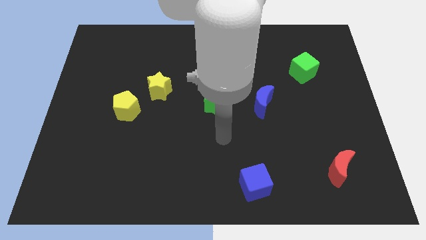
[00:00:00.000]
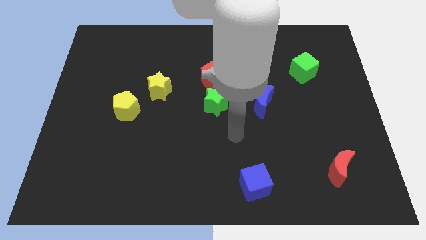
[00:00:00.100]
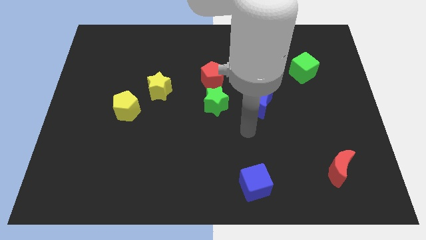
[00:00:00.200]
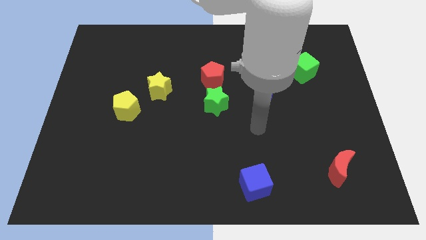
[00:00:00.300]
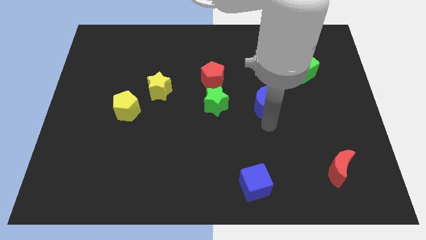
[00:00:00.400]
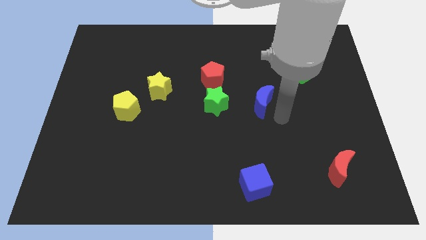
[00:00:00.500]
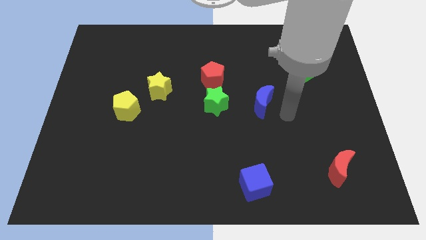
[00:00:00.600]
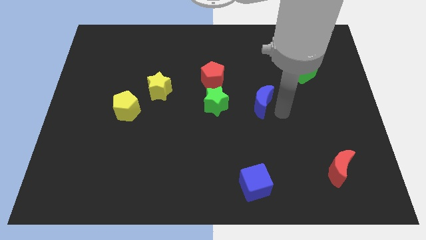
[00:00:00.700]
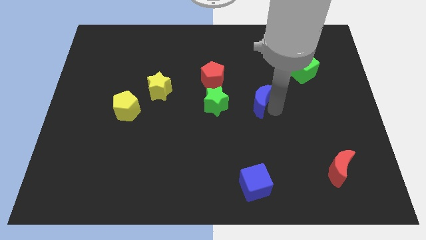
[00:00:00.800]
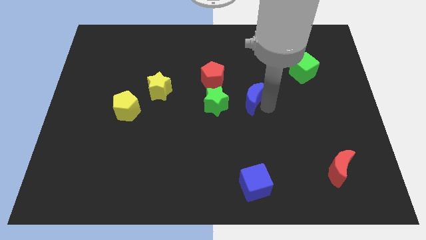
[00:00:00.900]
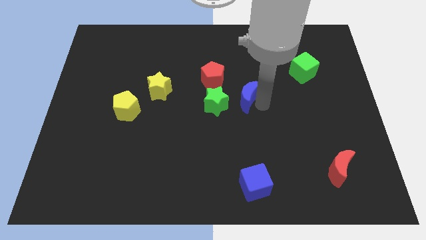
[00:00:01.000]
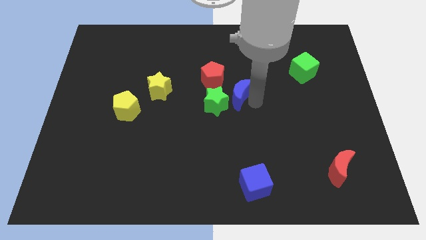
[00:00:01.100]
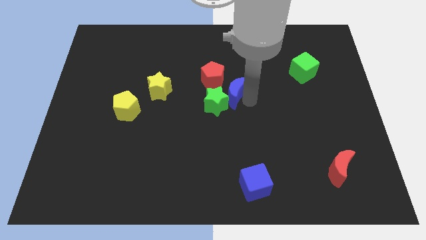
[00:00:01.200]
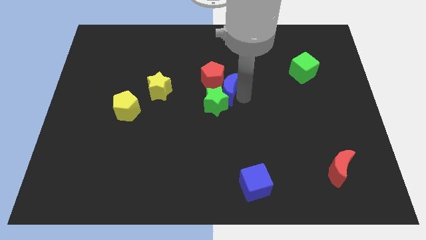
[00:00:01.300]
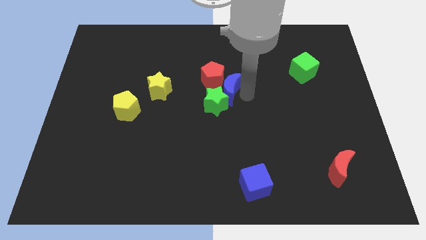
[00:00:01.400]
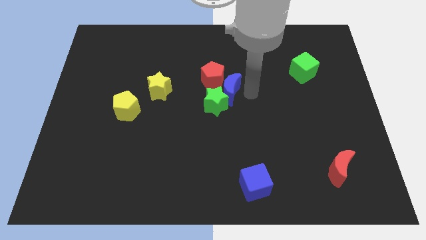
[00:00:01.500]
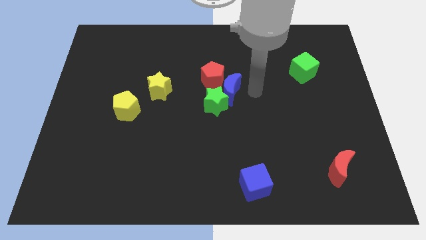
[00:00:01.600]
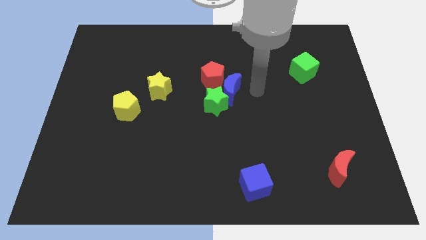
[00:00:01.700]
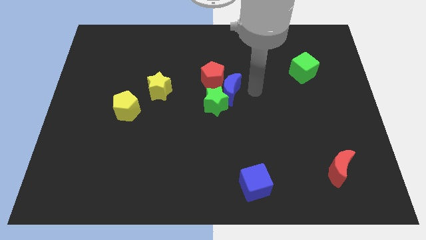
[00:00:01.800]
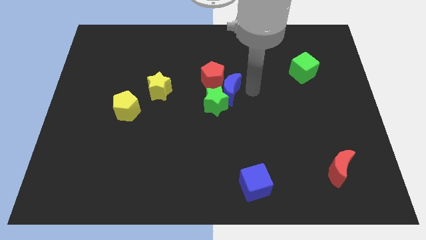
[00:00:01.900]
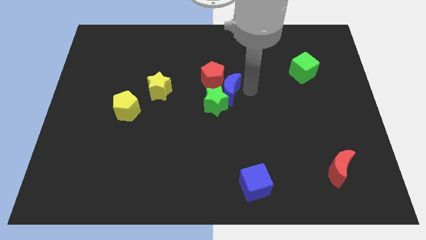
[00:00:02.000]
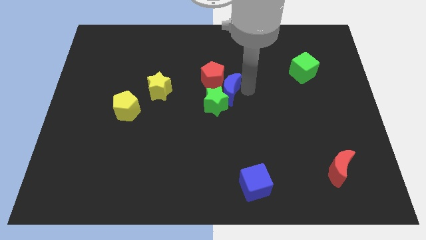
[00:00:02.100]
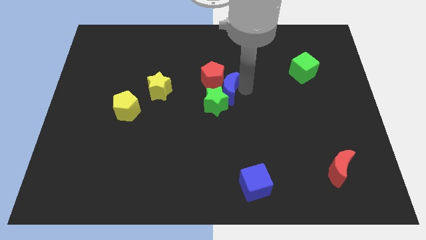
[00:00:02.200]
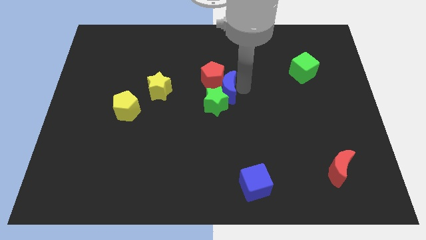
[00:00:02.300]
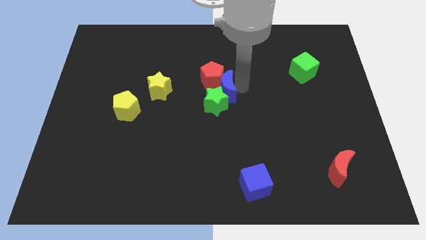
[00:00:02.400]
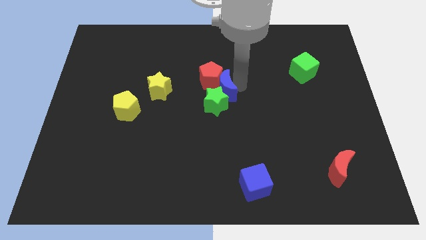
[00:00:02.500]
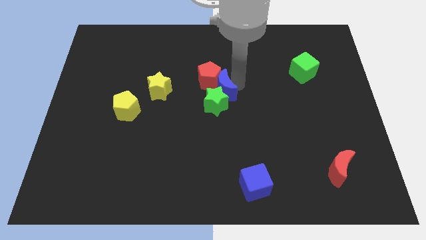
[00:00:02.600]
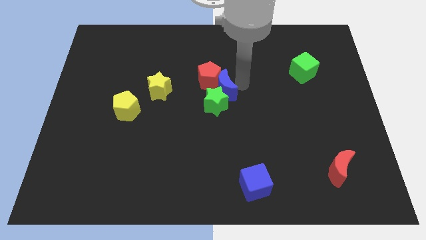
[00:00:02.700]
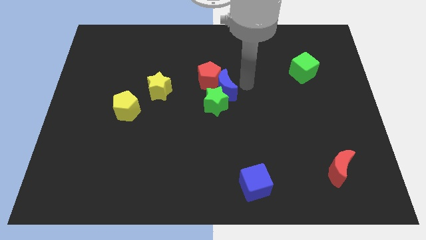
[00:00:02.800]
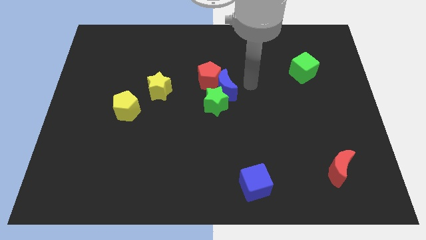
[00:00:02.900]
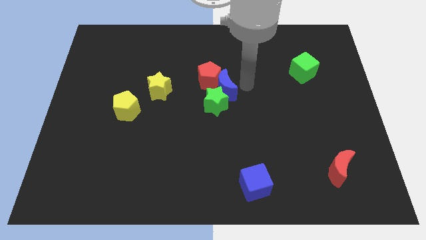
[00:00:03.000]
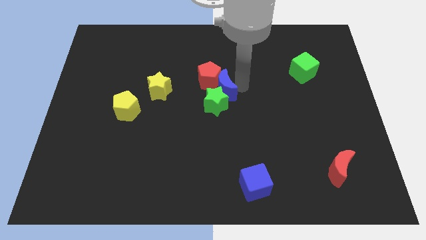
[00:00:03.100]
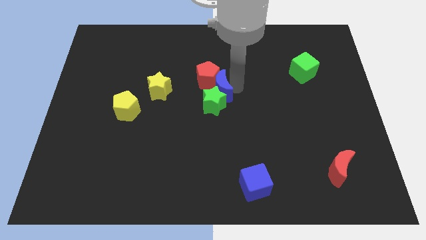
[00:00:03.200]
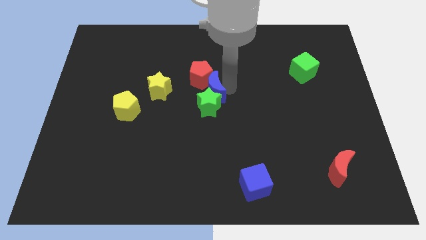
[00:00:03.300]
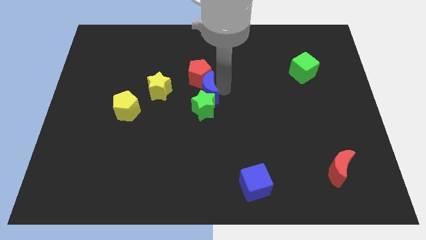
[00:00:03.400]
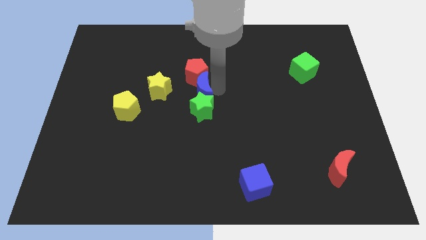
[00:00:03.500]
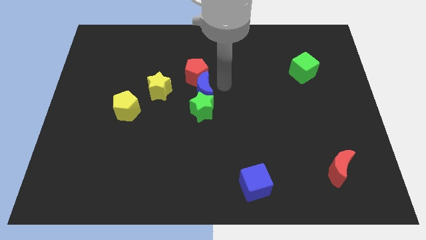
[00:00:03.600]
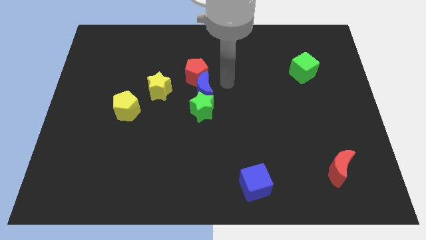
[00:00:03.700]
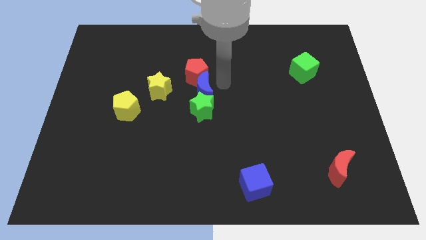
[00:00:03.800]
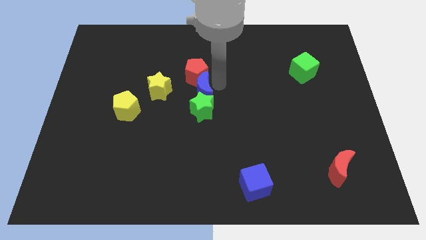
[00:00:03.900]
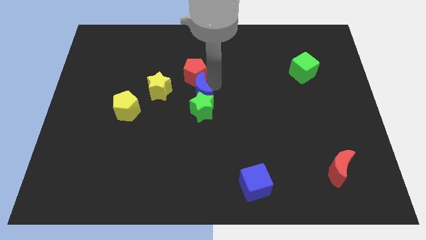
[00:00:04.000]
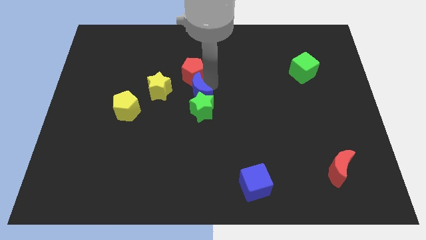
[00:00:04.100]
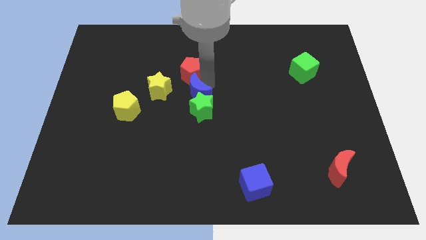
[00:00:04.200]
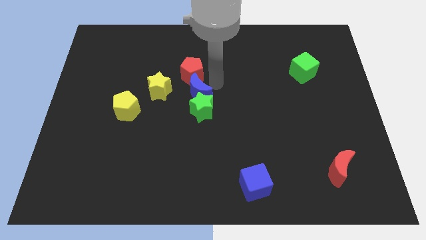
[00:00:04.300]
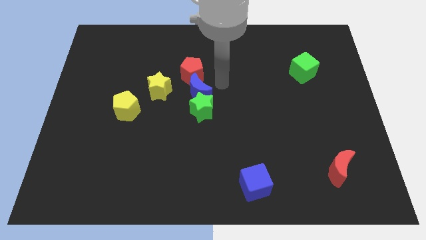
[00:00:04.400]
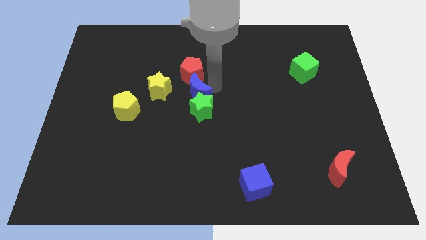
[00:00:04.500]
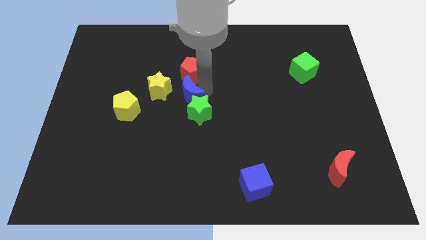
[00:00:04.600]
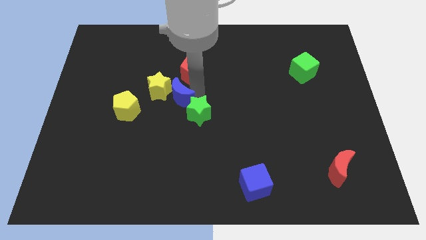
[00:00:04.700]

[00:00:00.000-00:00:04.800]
slide the blue moon just left of the green star

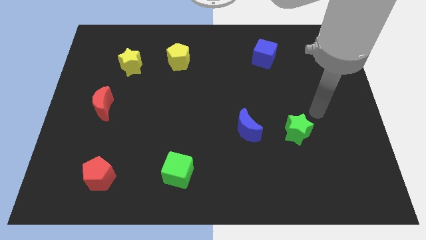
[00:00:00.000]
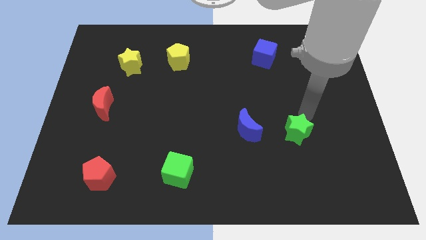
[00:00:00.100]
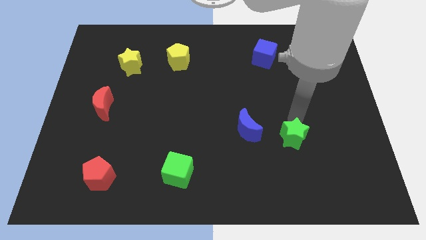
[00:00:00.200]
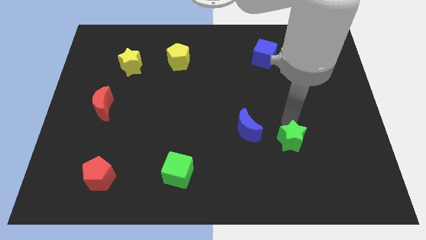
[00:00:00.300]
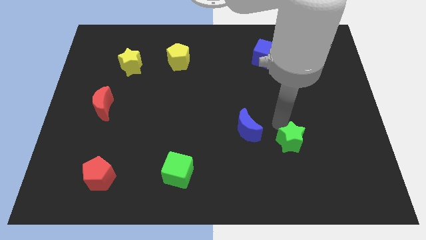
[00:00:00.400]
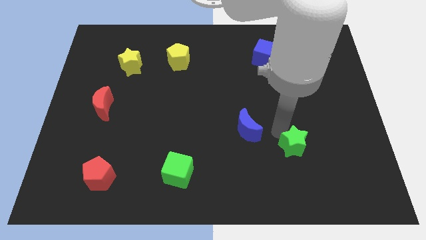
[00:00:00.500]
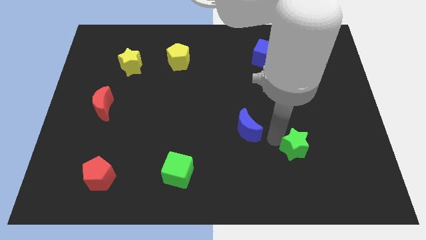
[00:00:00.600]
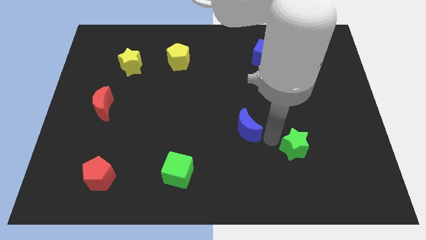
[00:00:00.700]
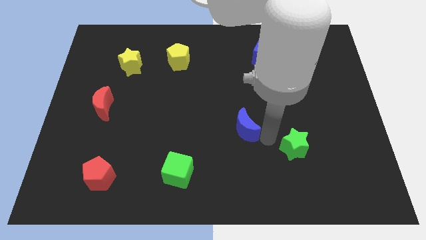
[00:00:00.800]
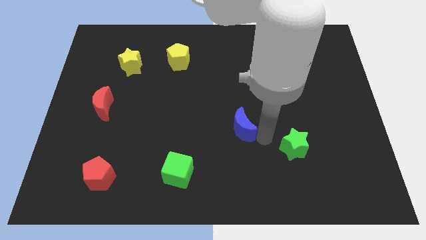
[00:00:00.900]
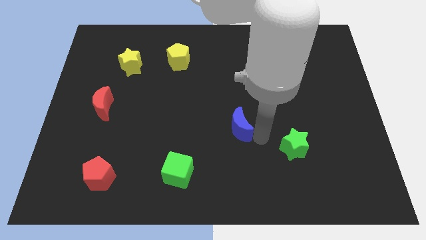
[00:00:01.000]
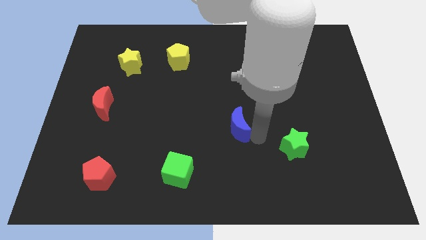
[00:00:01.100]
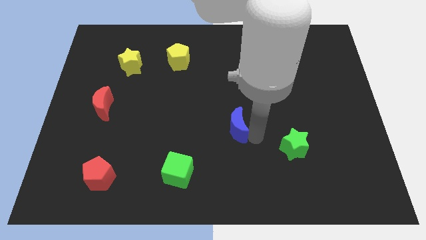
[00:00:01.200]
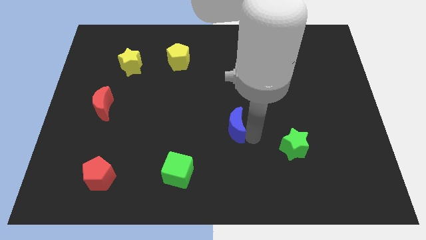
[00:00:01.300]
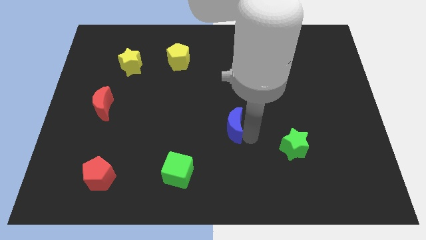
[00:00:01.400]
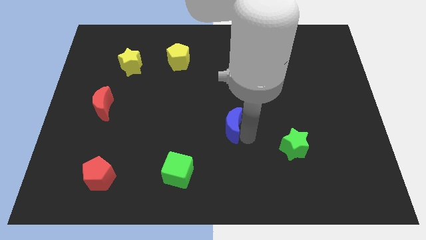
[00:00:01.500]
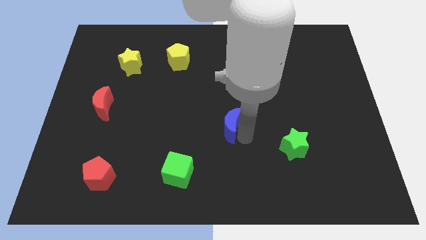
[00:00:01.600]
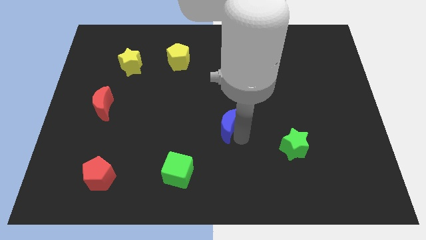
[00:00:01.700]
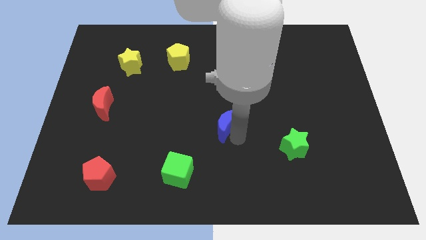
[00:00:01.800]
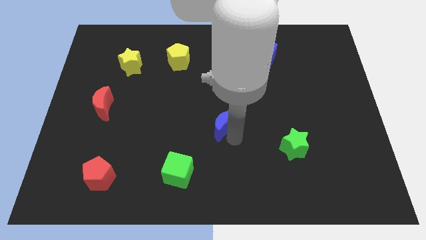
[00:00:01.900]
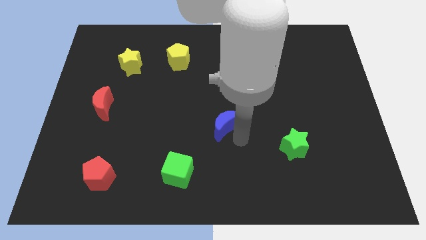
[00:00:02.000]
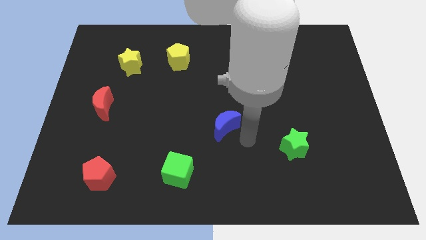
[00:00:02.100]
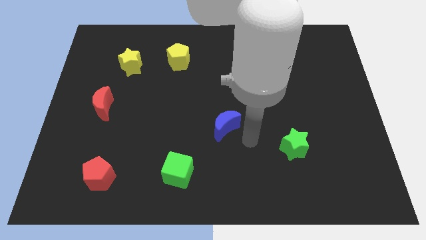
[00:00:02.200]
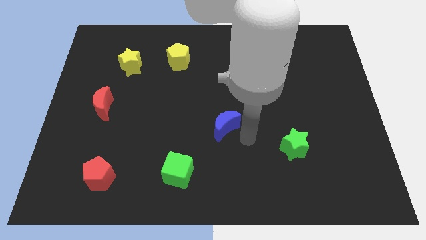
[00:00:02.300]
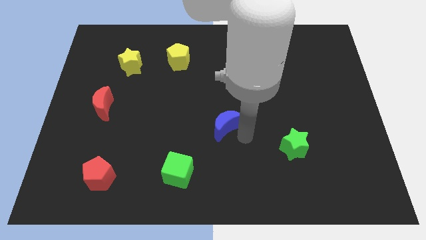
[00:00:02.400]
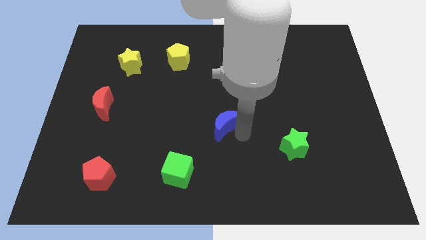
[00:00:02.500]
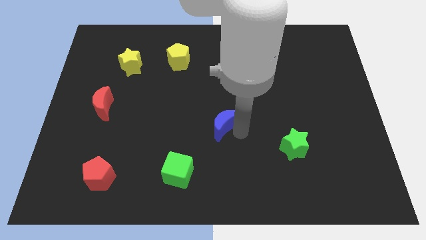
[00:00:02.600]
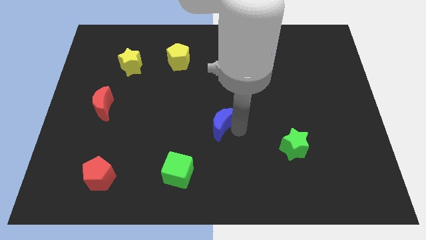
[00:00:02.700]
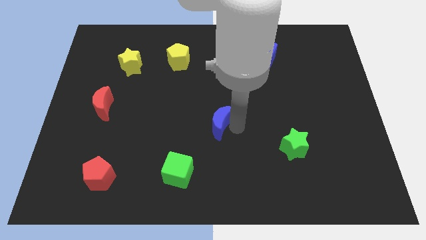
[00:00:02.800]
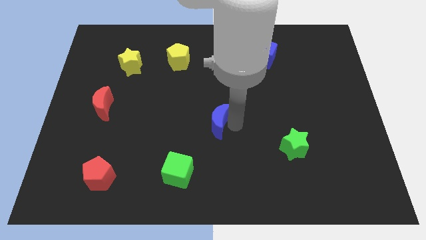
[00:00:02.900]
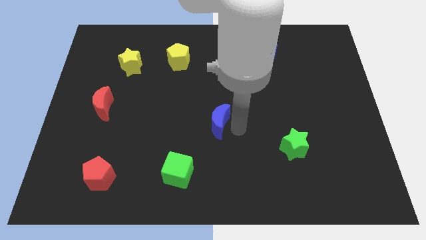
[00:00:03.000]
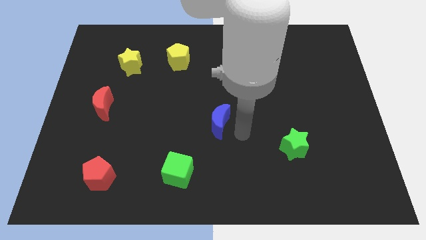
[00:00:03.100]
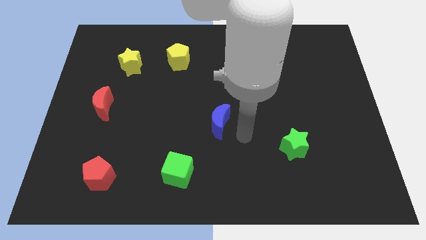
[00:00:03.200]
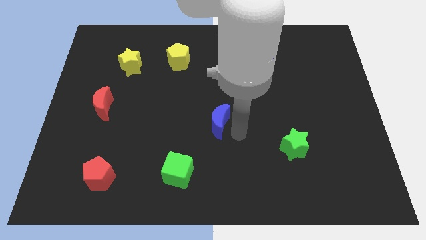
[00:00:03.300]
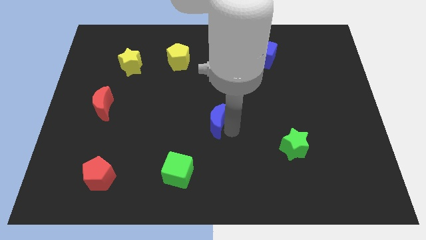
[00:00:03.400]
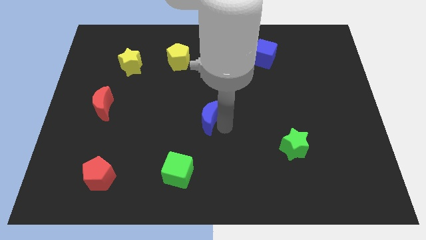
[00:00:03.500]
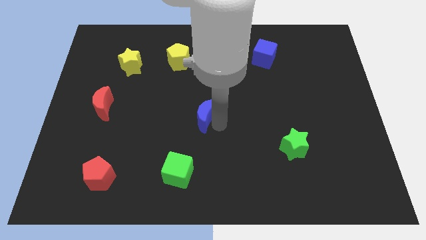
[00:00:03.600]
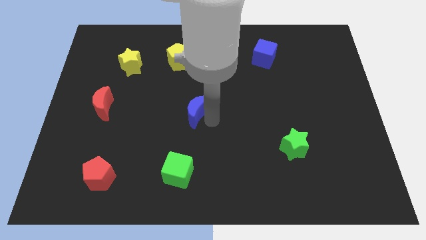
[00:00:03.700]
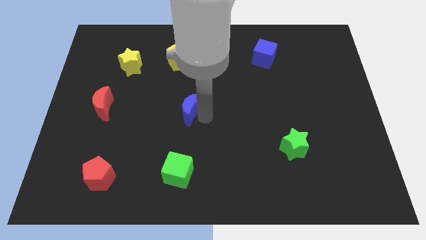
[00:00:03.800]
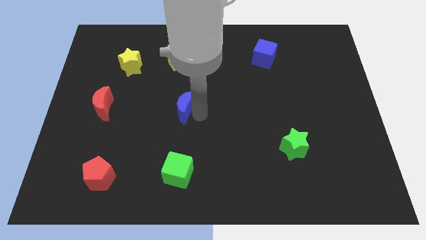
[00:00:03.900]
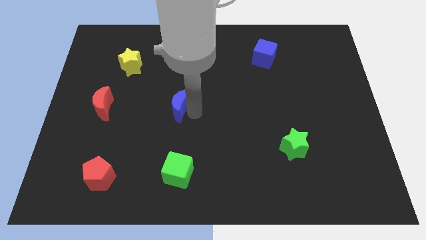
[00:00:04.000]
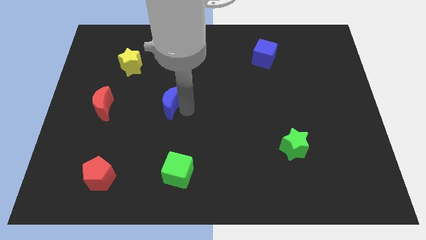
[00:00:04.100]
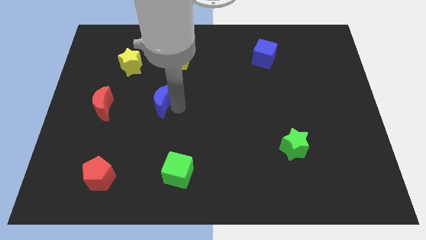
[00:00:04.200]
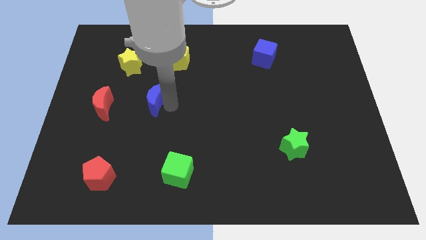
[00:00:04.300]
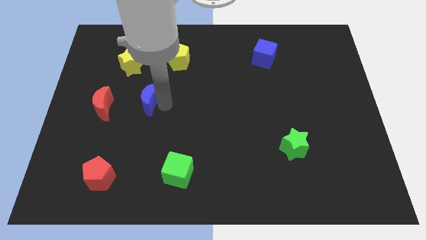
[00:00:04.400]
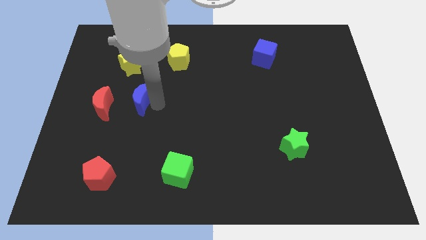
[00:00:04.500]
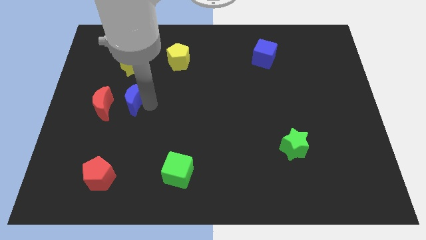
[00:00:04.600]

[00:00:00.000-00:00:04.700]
move the blue moon diagonally up and to the right of the red moon
